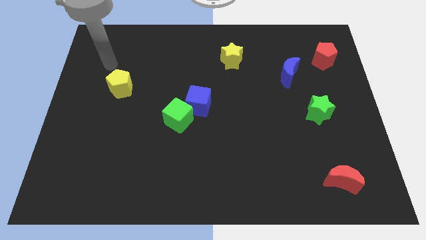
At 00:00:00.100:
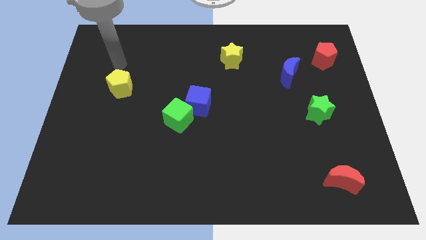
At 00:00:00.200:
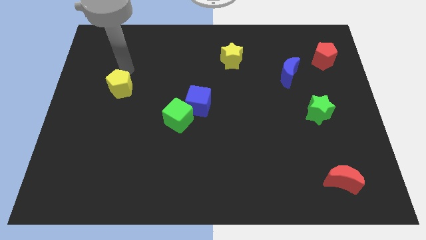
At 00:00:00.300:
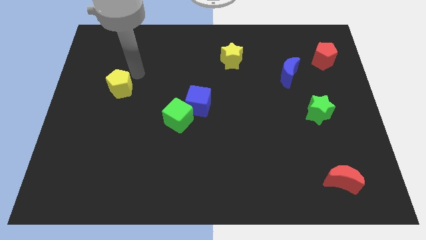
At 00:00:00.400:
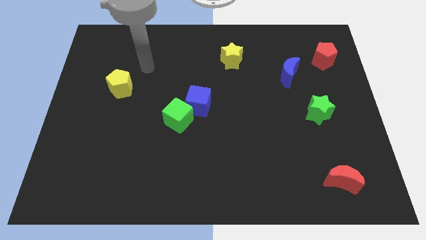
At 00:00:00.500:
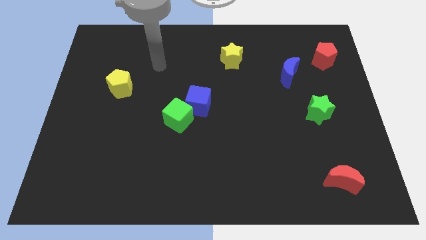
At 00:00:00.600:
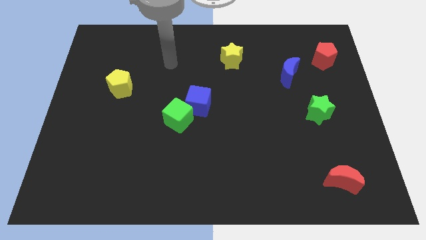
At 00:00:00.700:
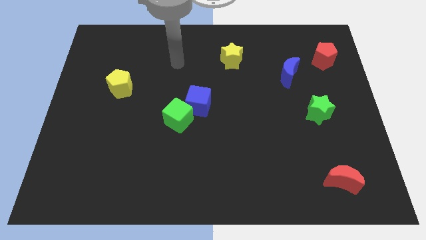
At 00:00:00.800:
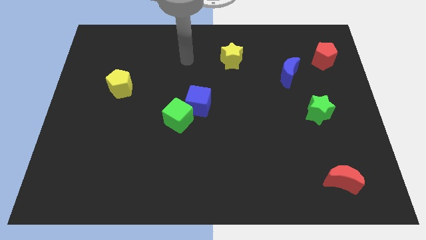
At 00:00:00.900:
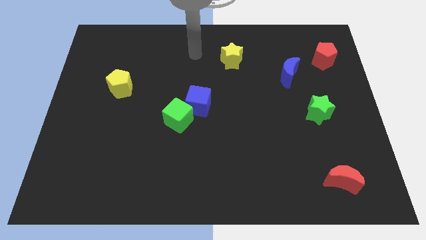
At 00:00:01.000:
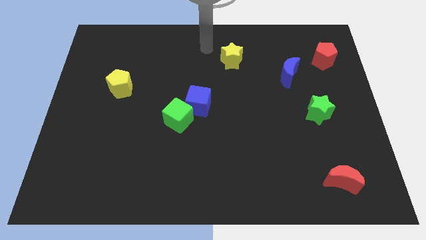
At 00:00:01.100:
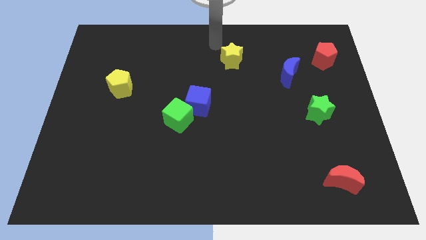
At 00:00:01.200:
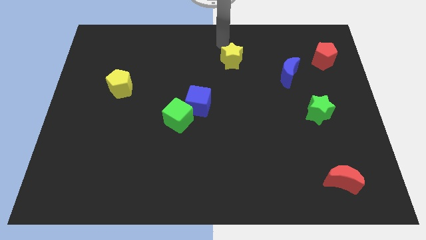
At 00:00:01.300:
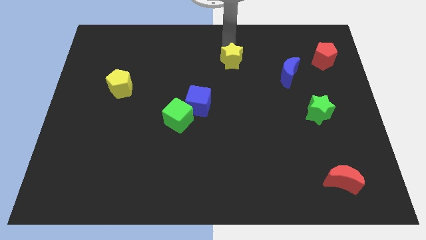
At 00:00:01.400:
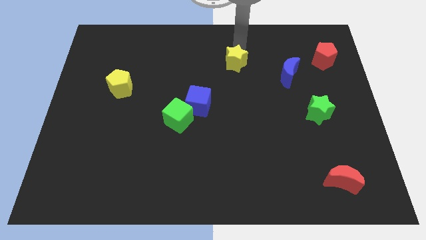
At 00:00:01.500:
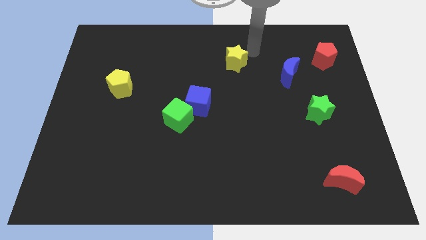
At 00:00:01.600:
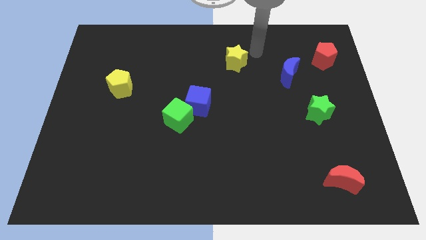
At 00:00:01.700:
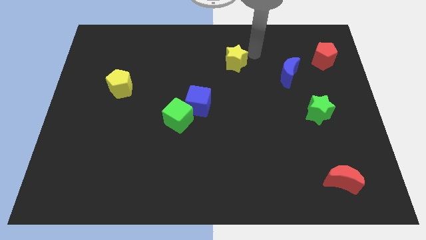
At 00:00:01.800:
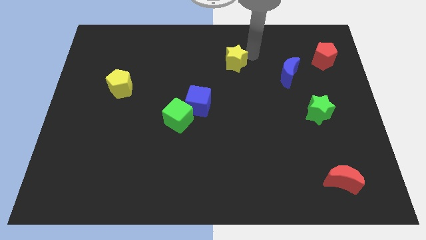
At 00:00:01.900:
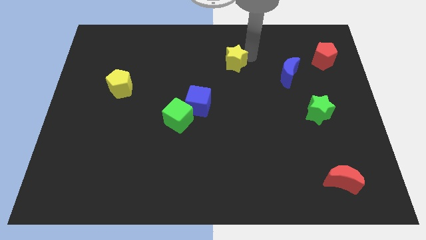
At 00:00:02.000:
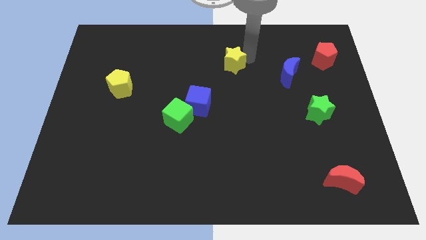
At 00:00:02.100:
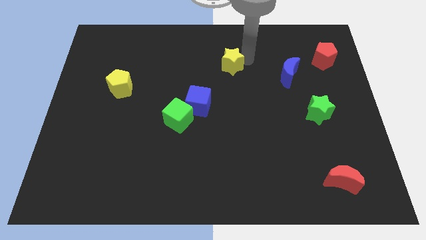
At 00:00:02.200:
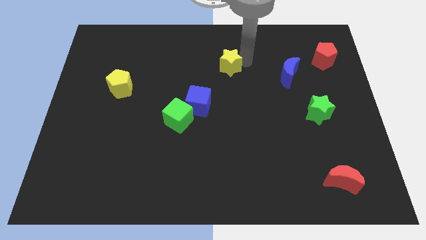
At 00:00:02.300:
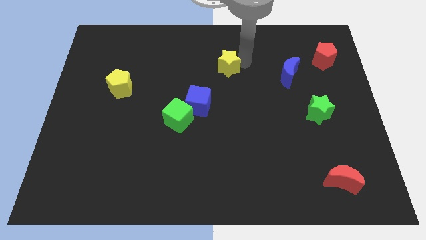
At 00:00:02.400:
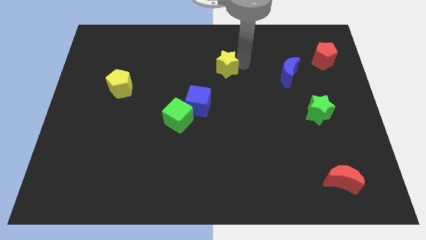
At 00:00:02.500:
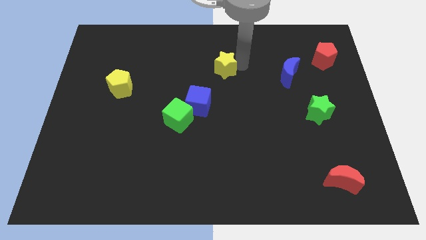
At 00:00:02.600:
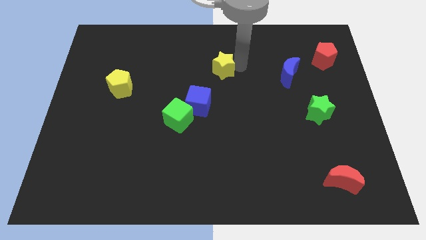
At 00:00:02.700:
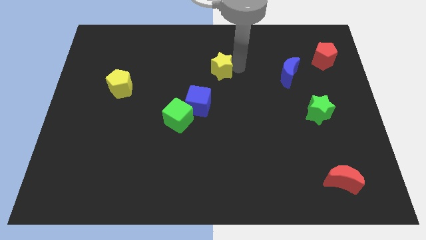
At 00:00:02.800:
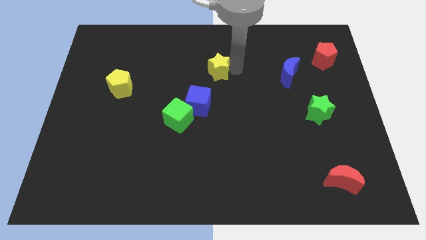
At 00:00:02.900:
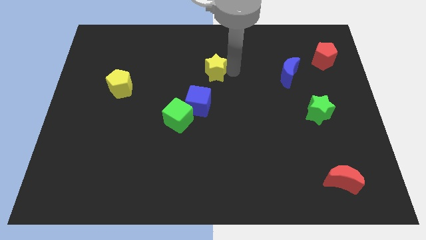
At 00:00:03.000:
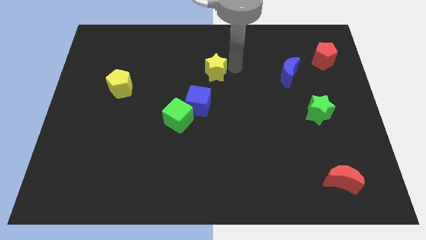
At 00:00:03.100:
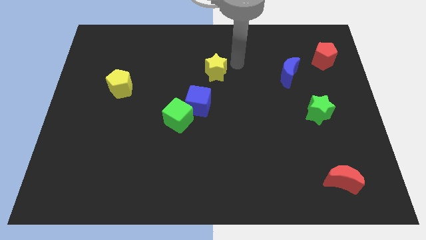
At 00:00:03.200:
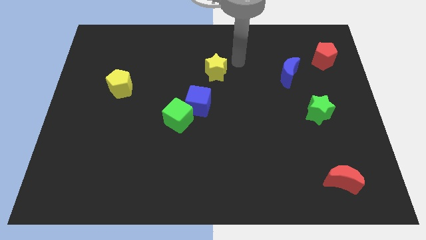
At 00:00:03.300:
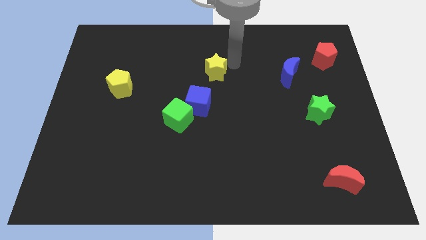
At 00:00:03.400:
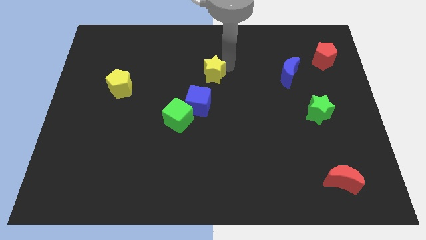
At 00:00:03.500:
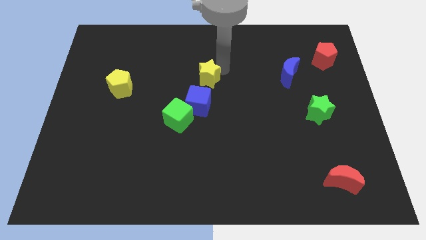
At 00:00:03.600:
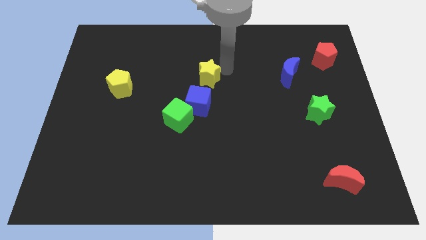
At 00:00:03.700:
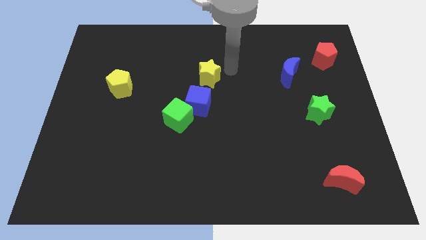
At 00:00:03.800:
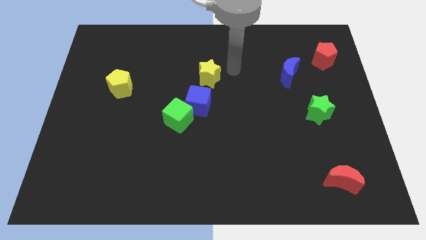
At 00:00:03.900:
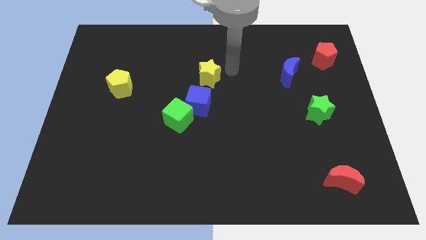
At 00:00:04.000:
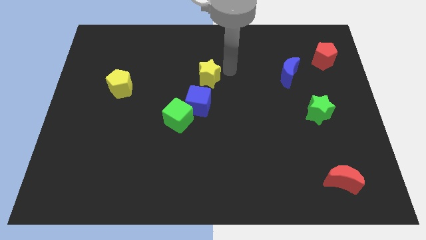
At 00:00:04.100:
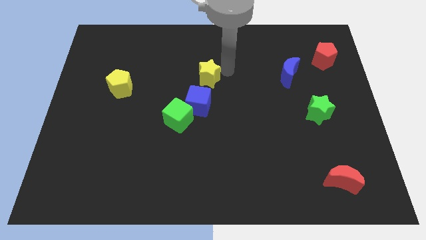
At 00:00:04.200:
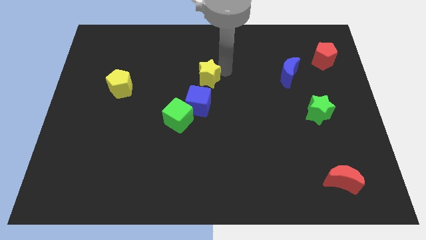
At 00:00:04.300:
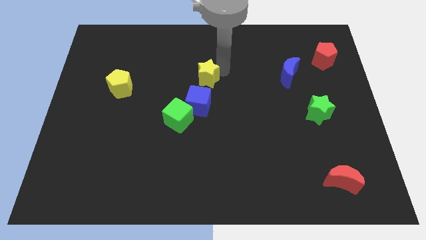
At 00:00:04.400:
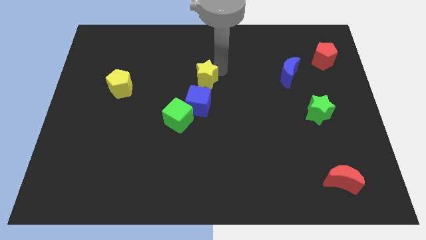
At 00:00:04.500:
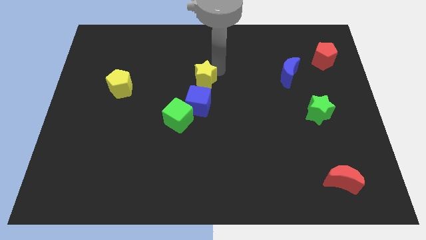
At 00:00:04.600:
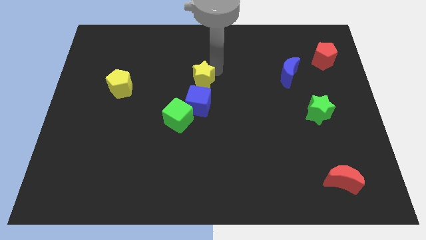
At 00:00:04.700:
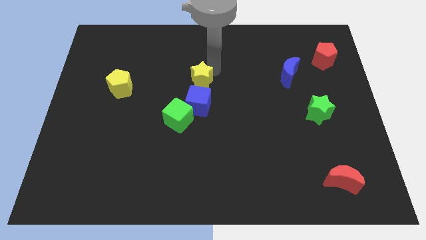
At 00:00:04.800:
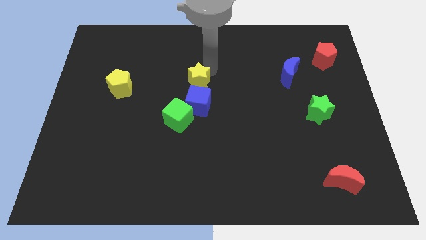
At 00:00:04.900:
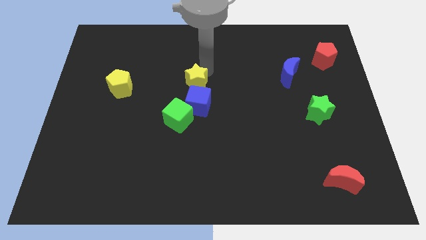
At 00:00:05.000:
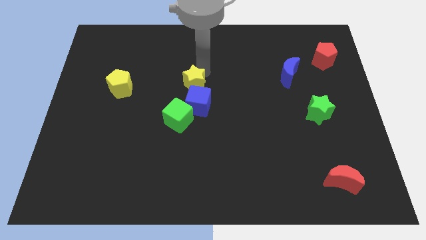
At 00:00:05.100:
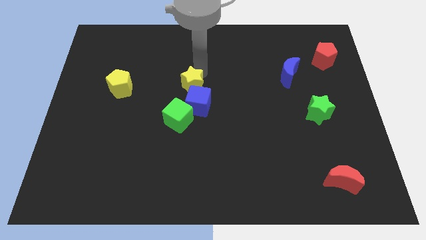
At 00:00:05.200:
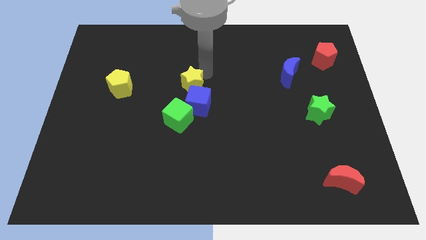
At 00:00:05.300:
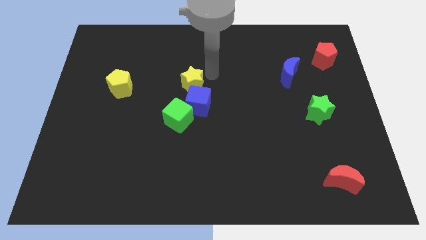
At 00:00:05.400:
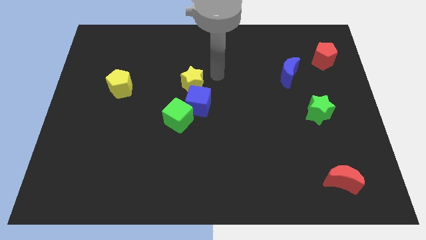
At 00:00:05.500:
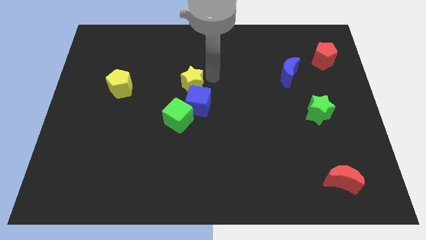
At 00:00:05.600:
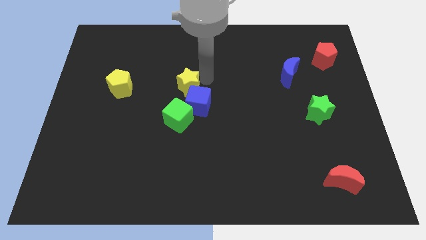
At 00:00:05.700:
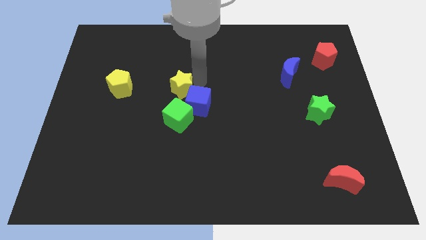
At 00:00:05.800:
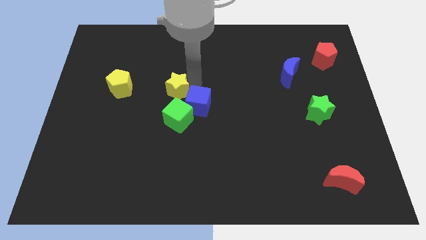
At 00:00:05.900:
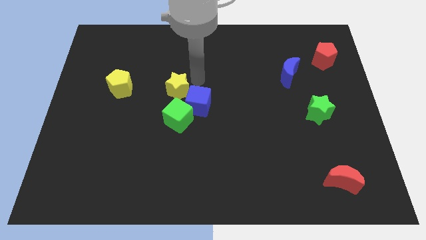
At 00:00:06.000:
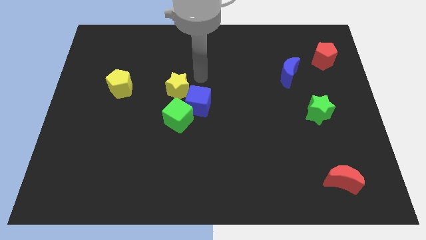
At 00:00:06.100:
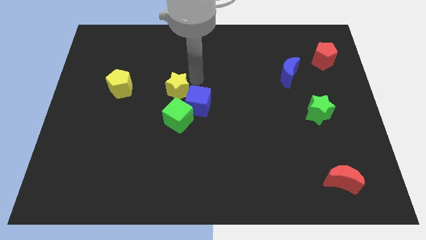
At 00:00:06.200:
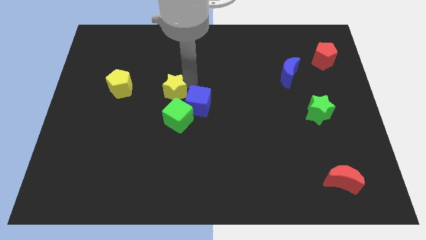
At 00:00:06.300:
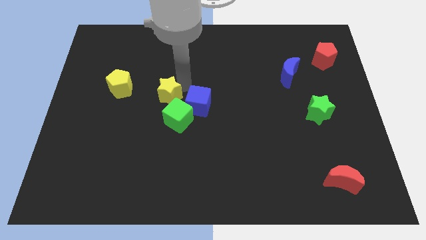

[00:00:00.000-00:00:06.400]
push the yellow star diagonally up and to the left of the green cube

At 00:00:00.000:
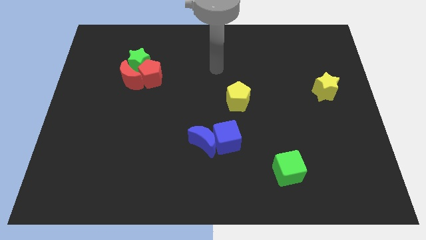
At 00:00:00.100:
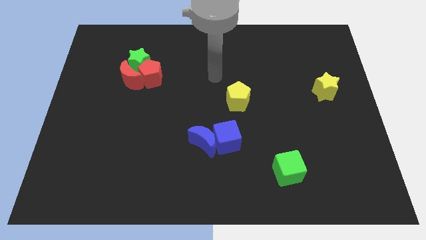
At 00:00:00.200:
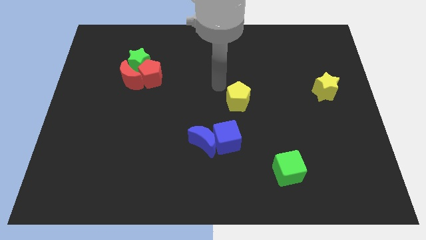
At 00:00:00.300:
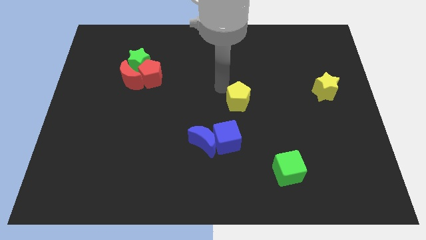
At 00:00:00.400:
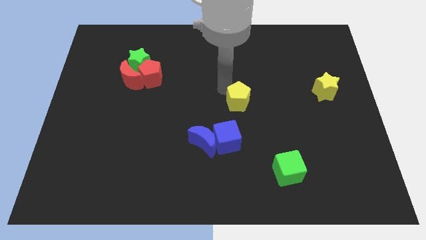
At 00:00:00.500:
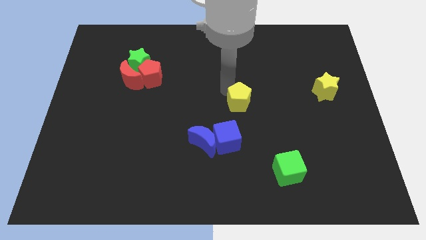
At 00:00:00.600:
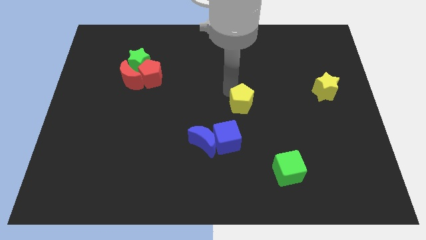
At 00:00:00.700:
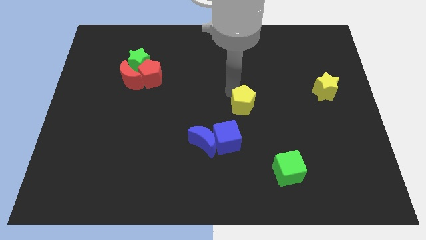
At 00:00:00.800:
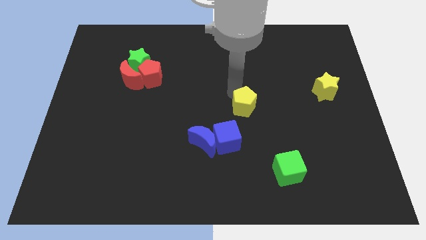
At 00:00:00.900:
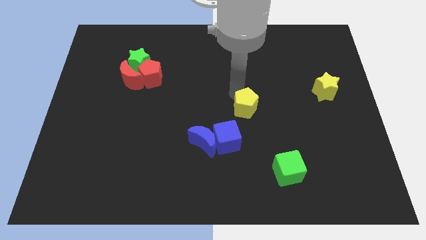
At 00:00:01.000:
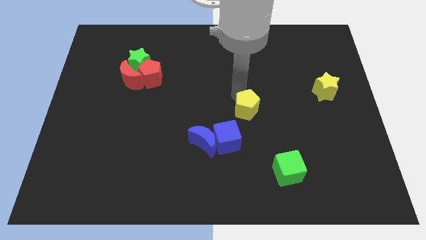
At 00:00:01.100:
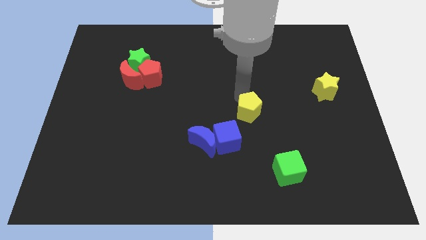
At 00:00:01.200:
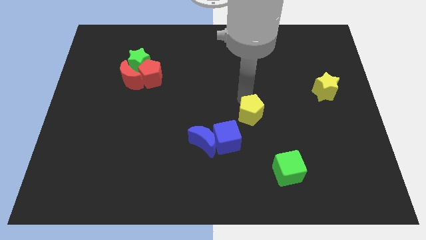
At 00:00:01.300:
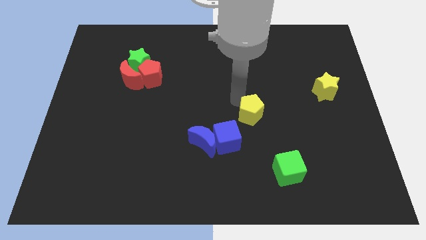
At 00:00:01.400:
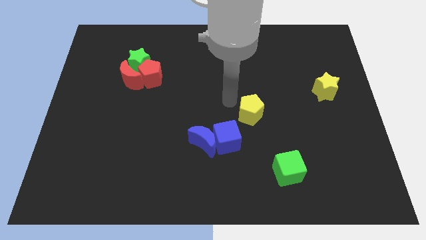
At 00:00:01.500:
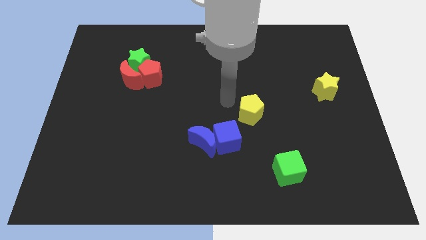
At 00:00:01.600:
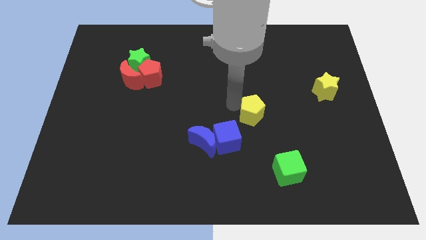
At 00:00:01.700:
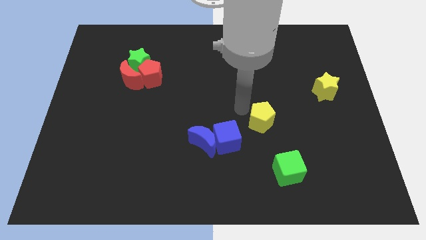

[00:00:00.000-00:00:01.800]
move the yellow pentagon to the top side of the green cube
